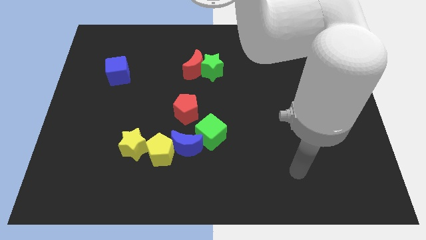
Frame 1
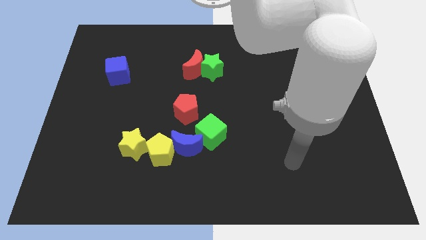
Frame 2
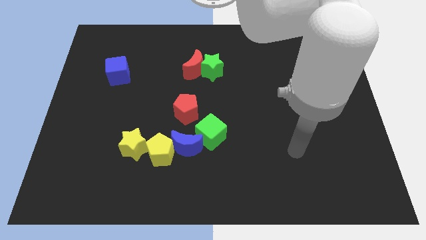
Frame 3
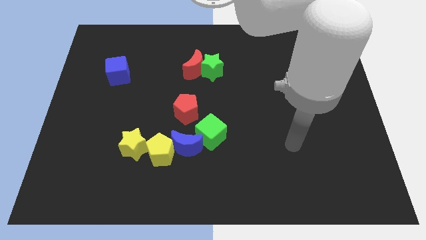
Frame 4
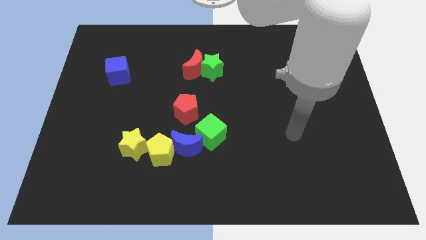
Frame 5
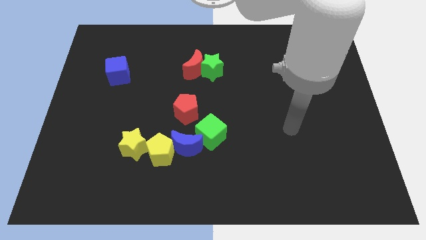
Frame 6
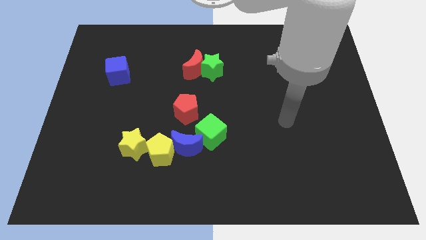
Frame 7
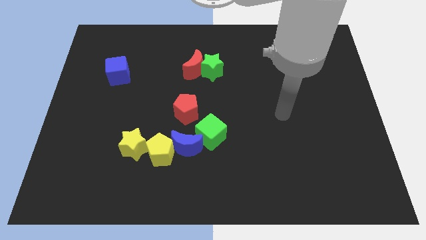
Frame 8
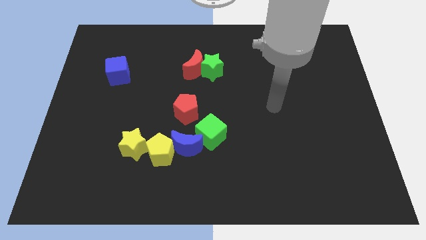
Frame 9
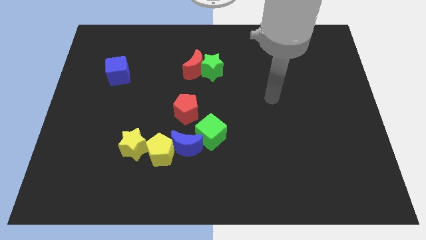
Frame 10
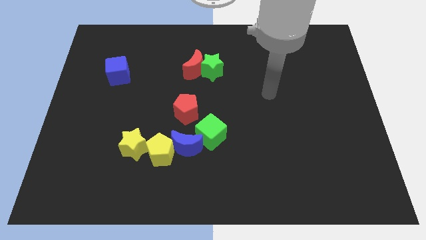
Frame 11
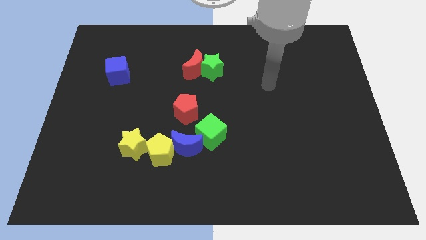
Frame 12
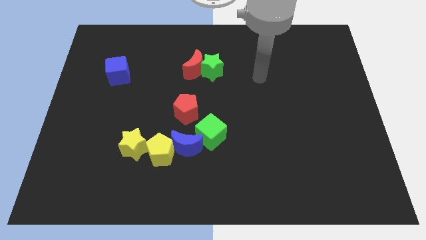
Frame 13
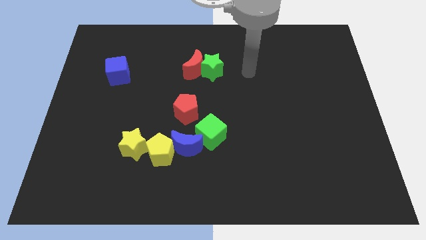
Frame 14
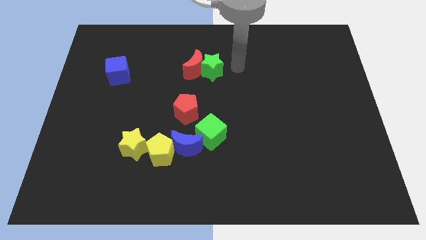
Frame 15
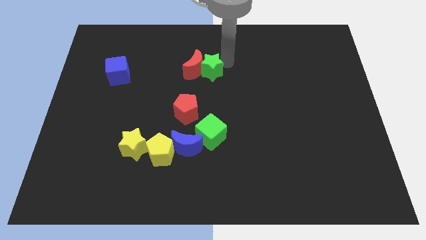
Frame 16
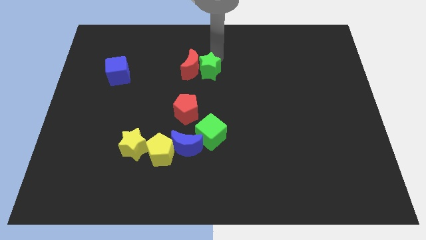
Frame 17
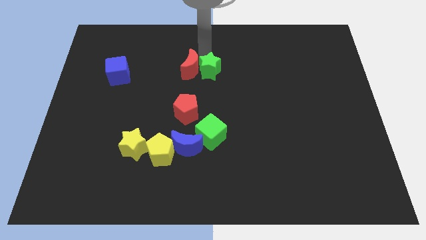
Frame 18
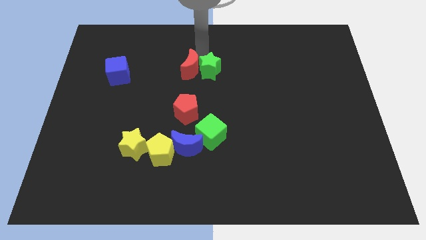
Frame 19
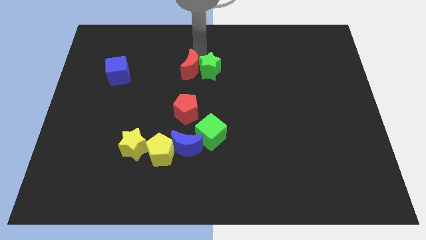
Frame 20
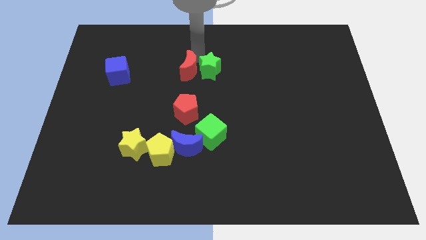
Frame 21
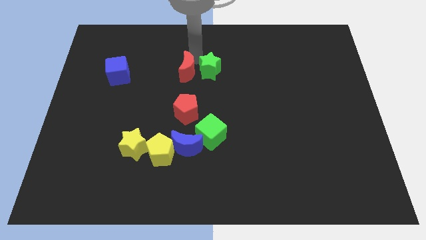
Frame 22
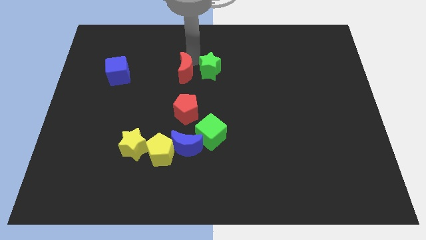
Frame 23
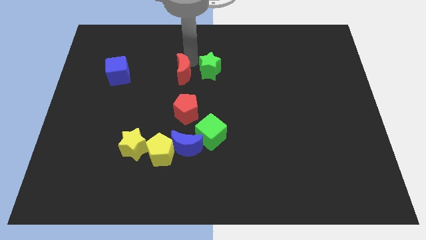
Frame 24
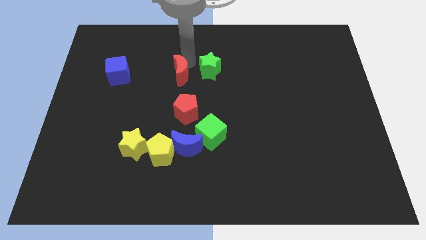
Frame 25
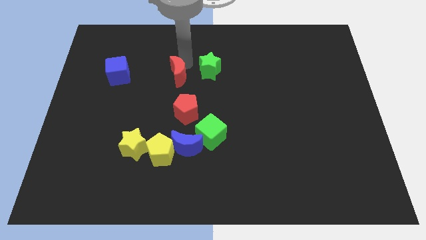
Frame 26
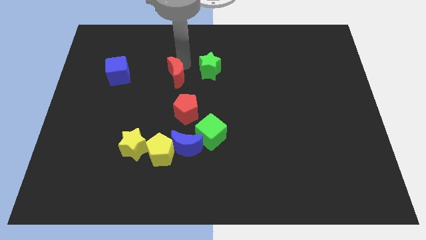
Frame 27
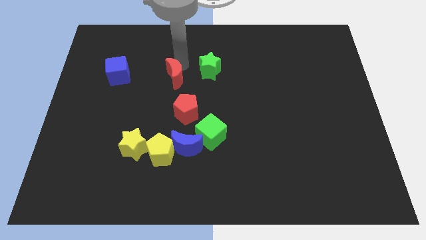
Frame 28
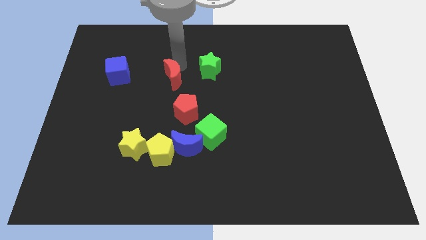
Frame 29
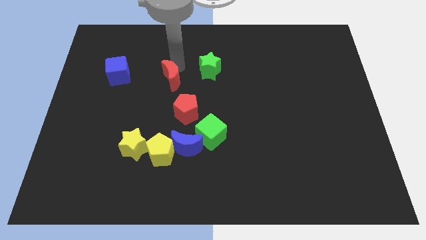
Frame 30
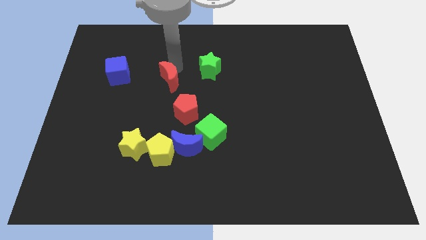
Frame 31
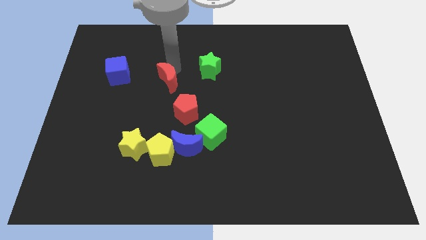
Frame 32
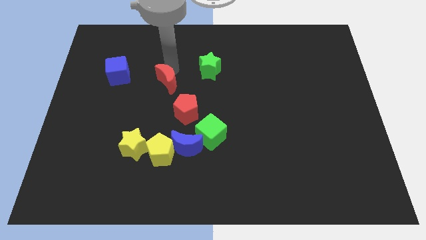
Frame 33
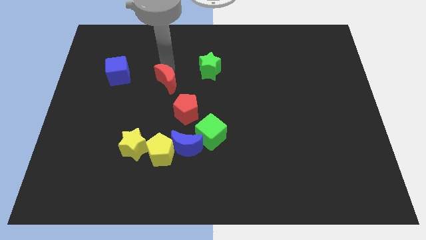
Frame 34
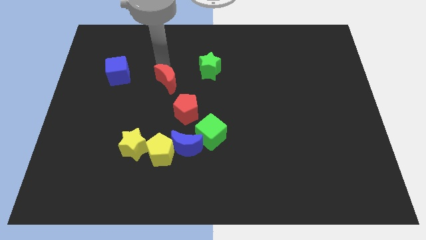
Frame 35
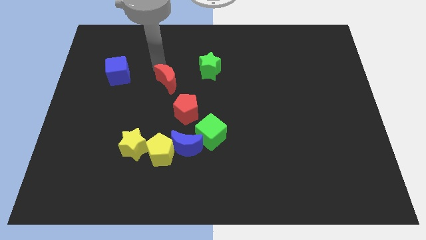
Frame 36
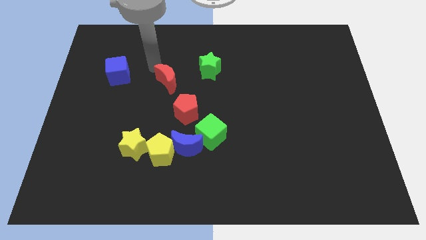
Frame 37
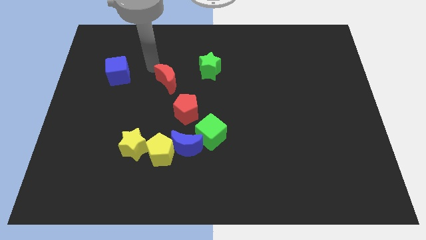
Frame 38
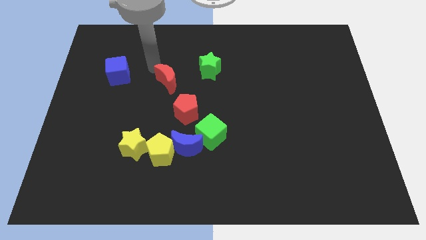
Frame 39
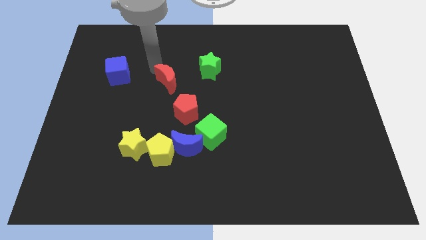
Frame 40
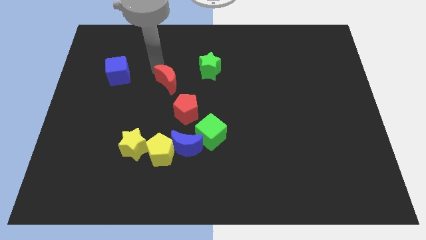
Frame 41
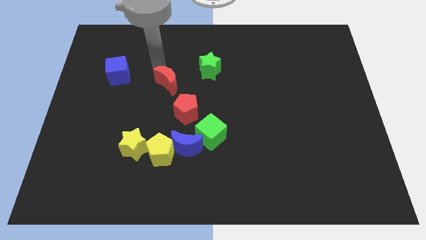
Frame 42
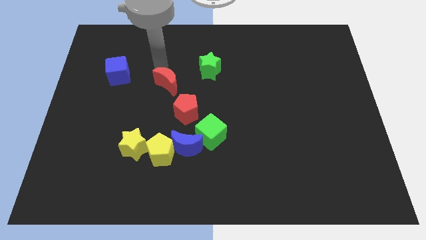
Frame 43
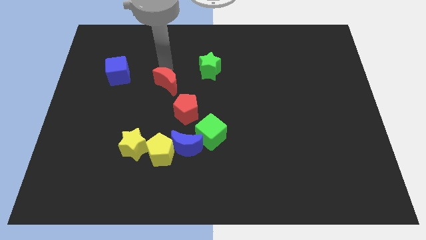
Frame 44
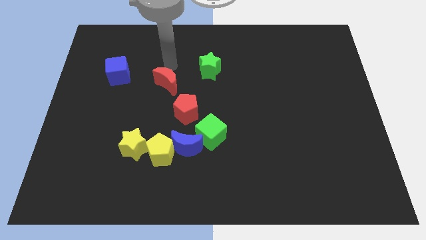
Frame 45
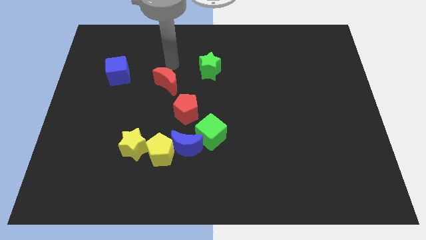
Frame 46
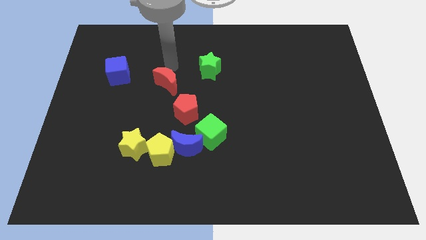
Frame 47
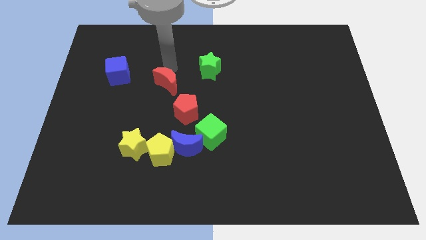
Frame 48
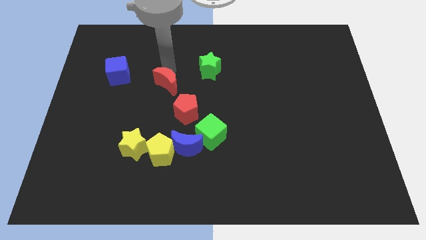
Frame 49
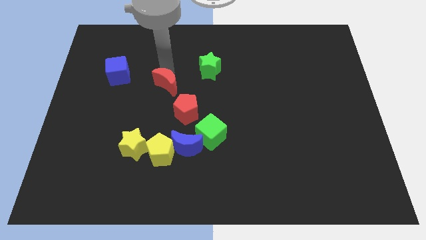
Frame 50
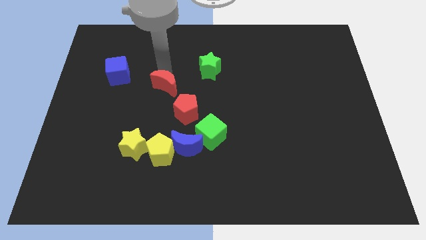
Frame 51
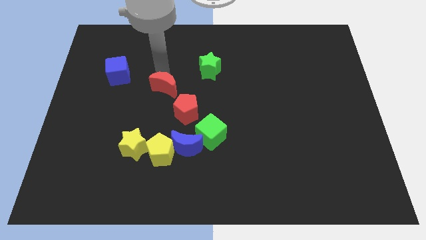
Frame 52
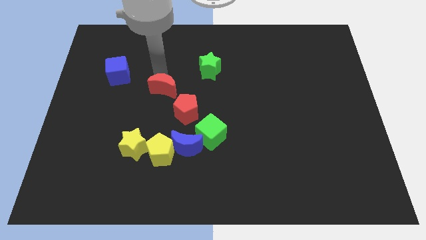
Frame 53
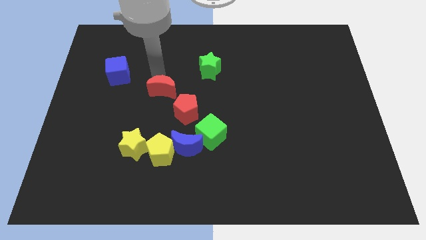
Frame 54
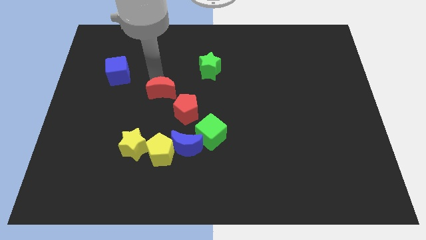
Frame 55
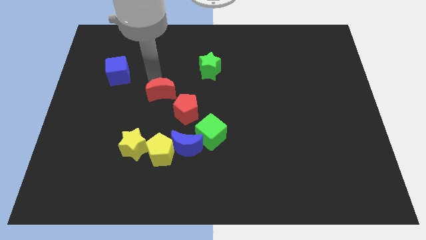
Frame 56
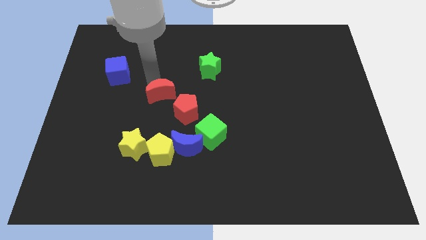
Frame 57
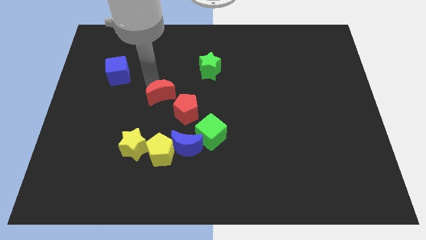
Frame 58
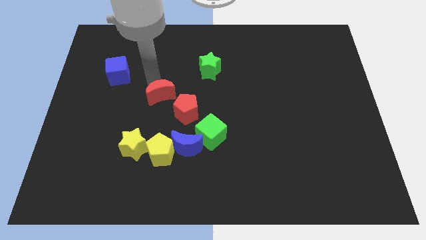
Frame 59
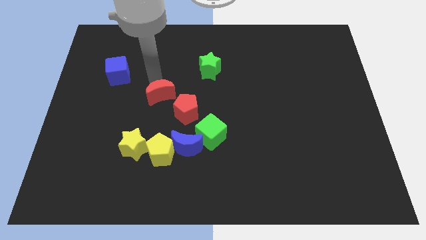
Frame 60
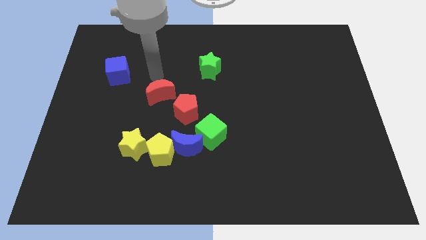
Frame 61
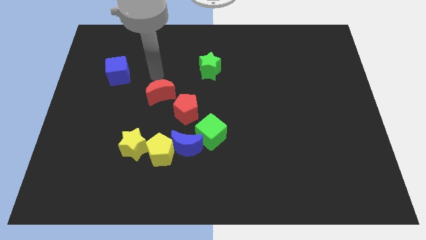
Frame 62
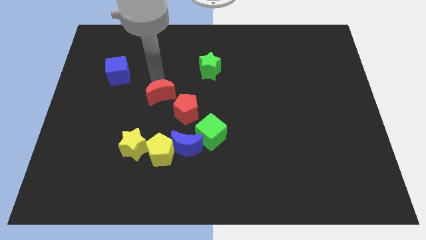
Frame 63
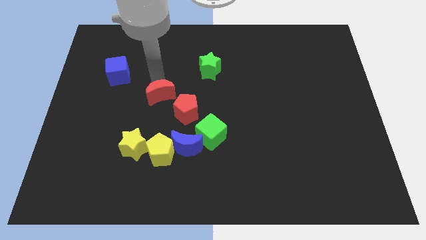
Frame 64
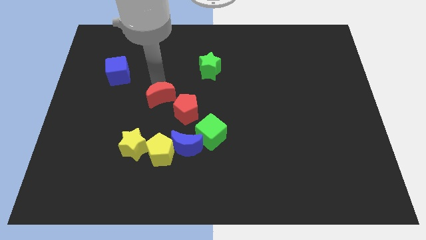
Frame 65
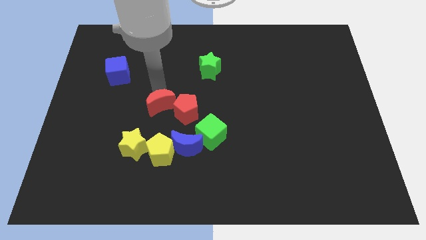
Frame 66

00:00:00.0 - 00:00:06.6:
slightly push the red moon downwards

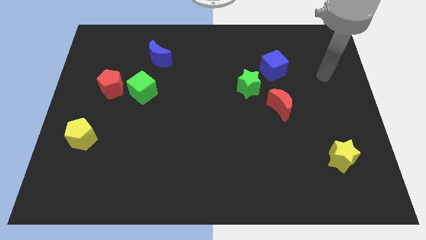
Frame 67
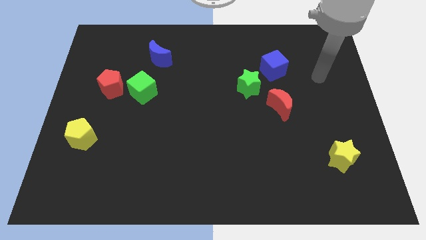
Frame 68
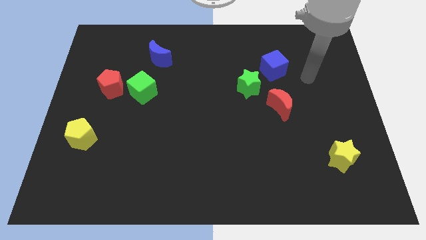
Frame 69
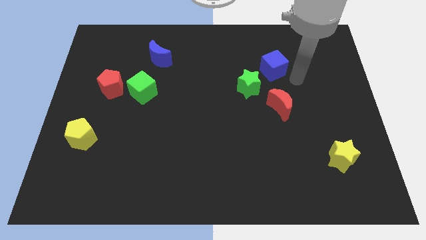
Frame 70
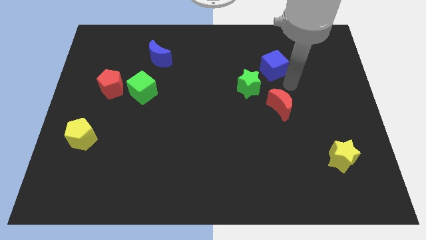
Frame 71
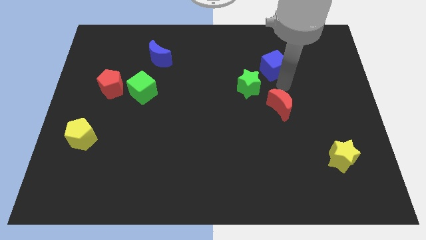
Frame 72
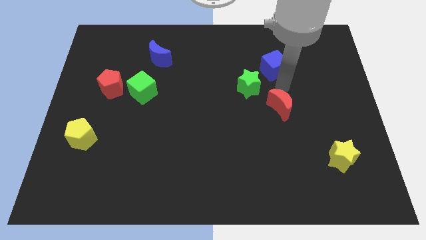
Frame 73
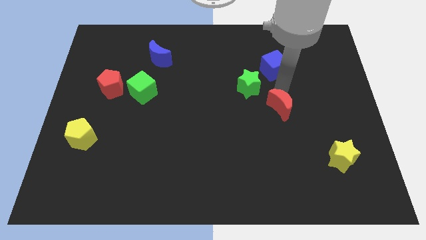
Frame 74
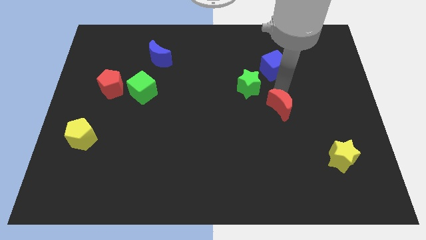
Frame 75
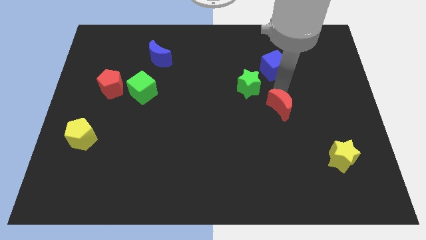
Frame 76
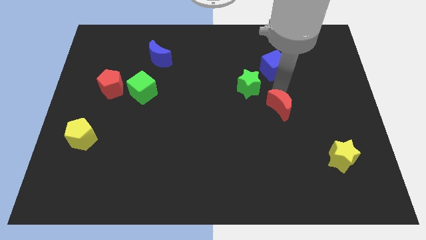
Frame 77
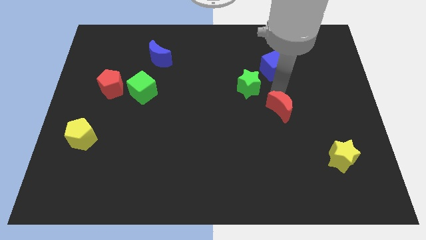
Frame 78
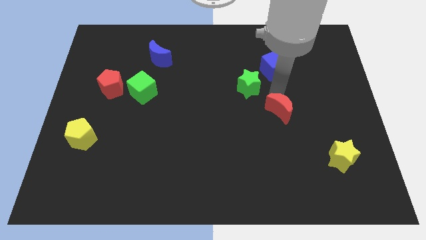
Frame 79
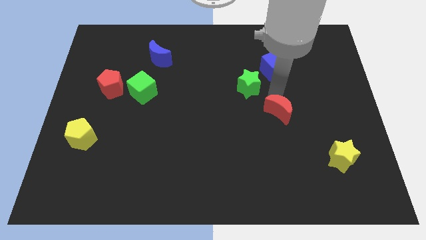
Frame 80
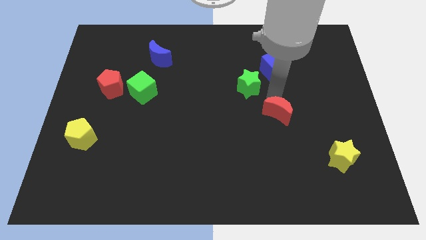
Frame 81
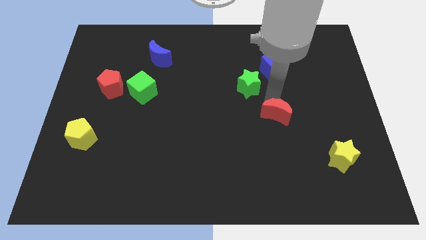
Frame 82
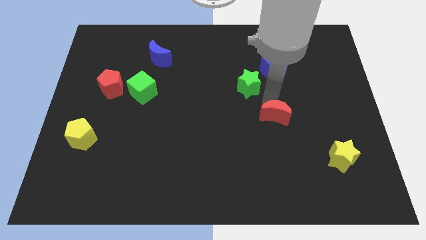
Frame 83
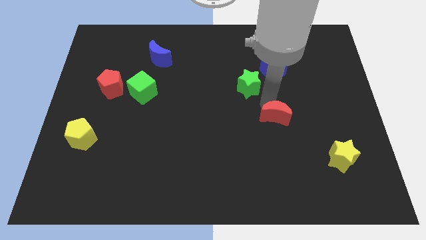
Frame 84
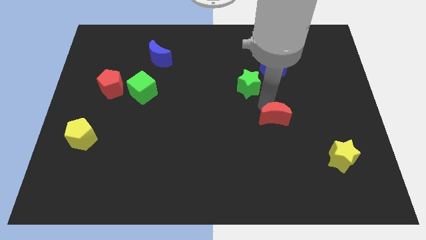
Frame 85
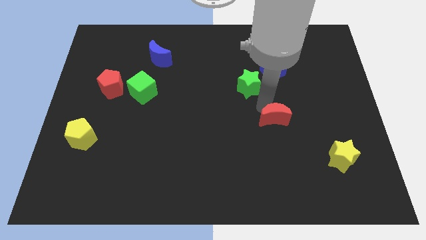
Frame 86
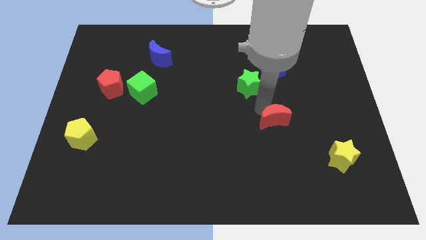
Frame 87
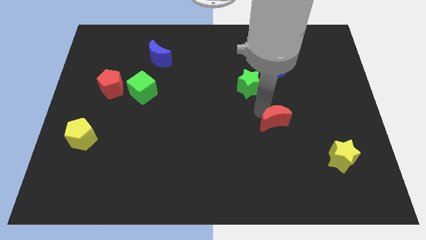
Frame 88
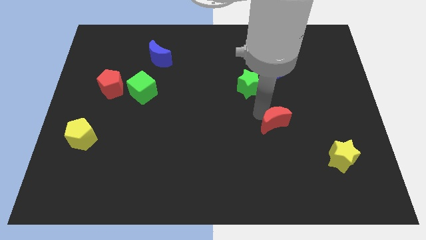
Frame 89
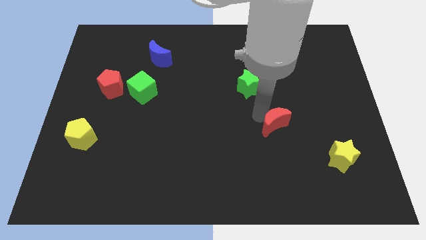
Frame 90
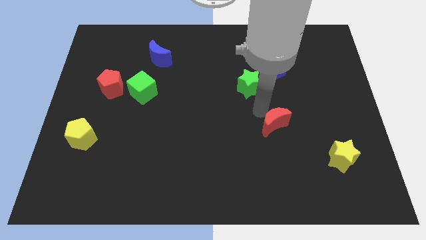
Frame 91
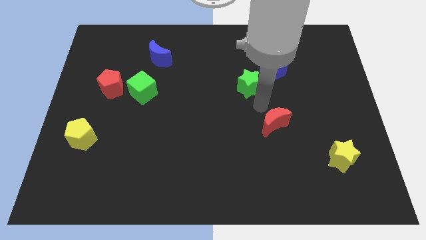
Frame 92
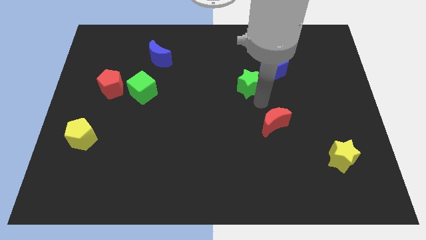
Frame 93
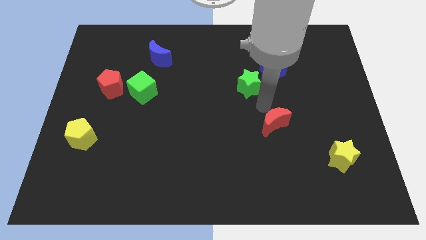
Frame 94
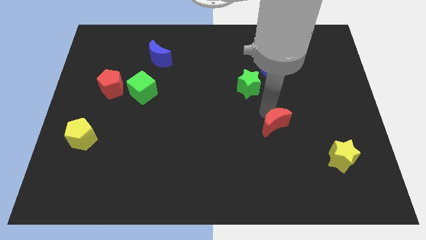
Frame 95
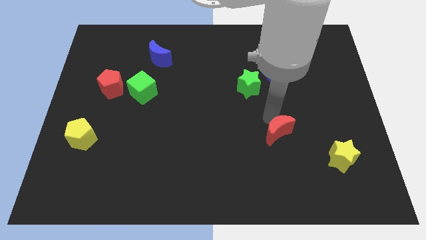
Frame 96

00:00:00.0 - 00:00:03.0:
push the red moon downwards a little bit
